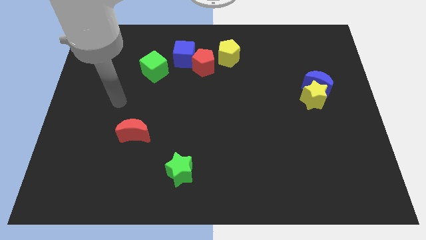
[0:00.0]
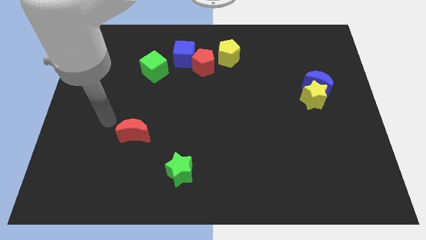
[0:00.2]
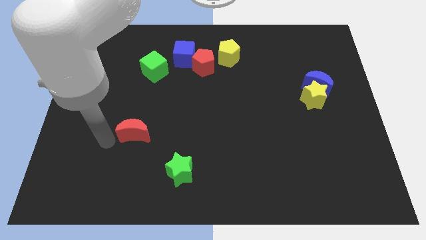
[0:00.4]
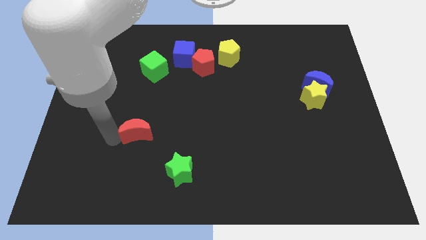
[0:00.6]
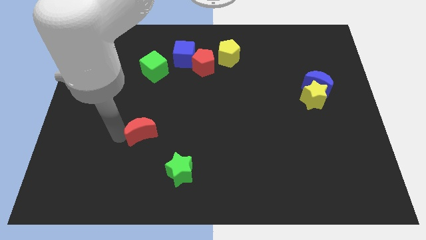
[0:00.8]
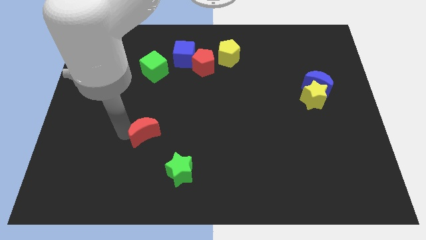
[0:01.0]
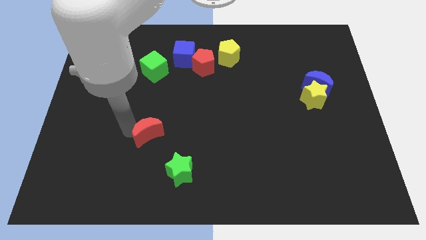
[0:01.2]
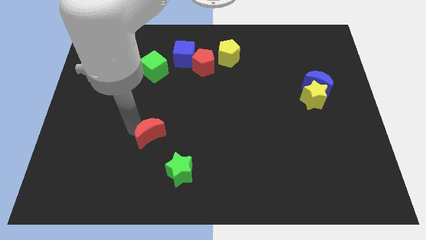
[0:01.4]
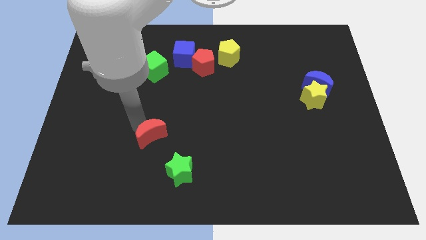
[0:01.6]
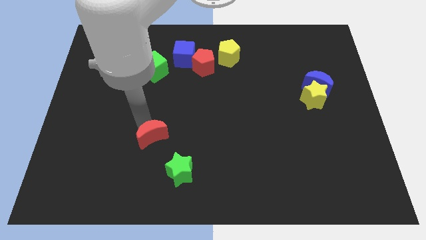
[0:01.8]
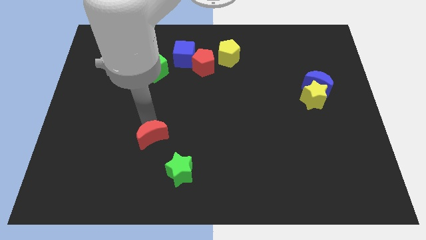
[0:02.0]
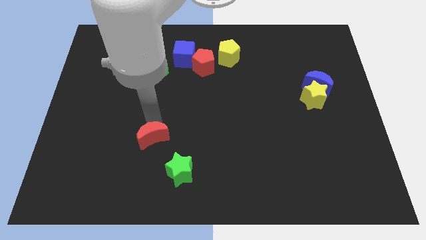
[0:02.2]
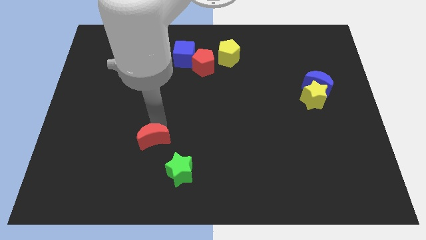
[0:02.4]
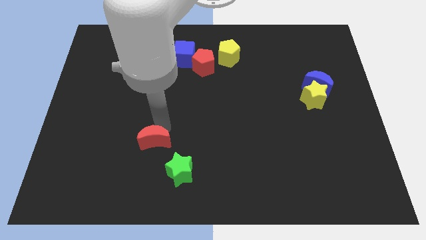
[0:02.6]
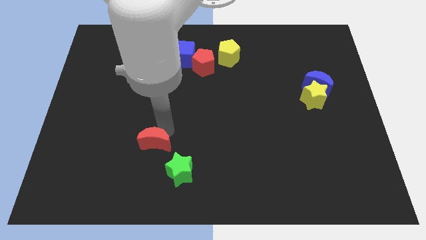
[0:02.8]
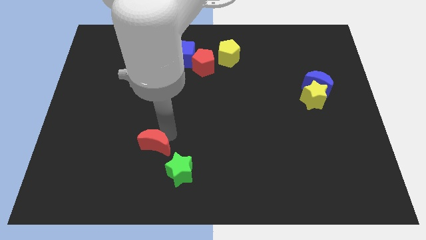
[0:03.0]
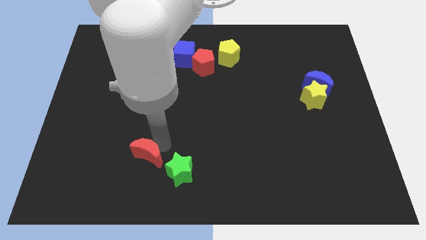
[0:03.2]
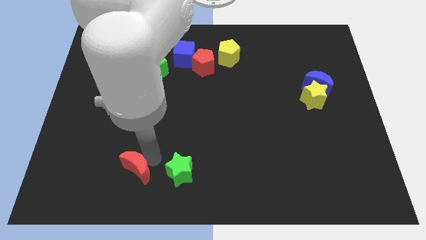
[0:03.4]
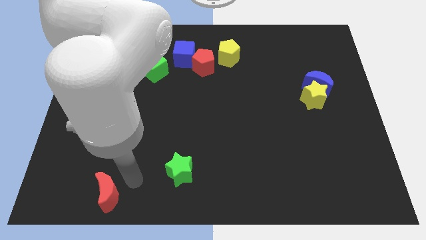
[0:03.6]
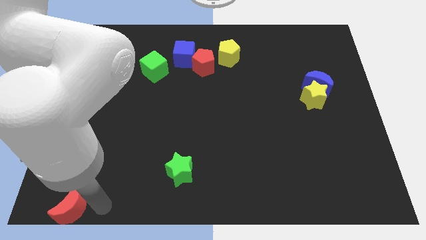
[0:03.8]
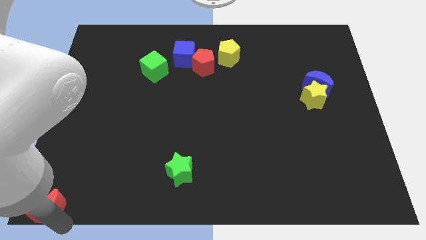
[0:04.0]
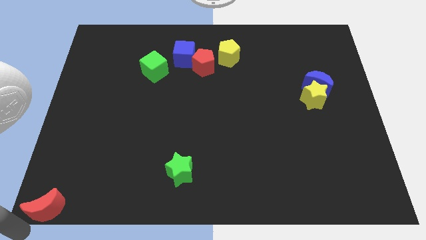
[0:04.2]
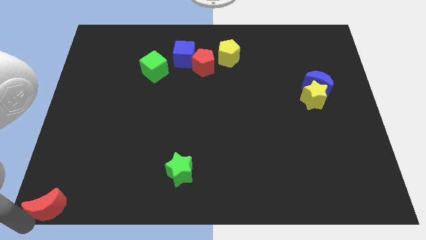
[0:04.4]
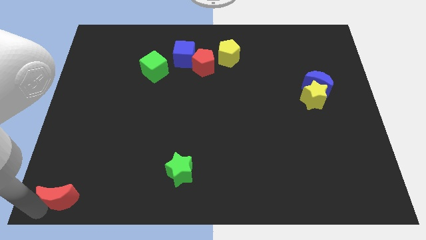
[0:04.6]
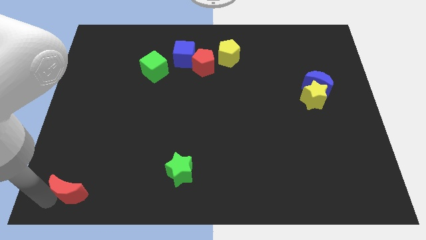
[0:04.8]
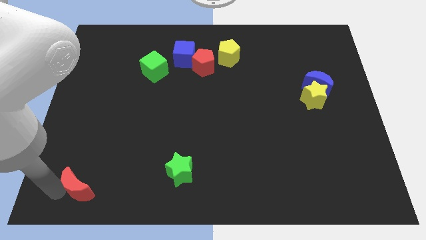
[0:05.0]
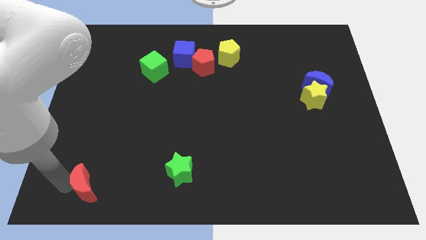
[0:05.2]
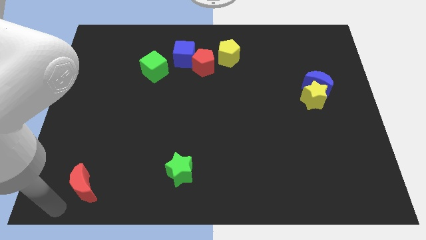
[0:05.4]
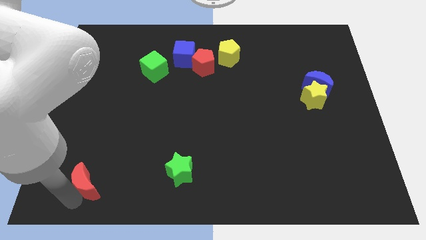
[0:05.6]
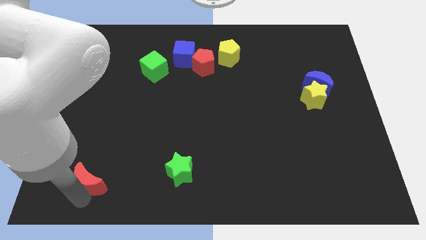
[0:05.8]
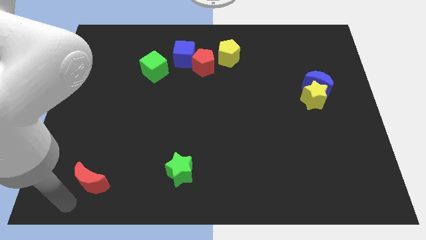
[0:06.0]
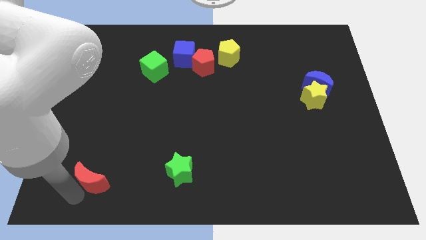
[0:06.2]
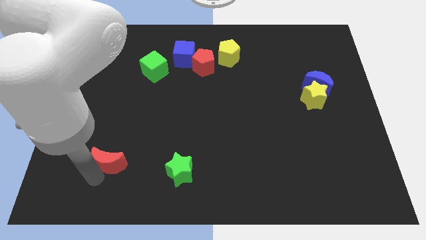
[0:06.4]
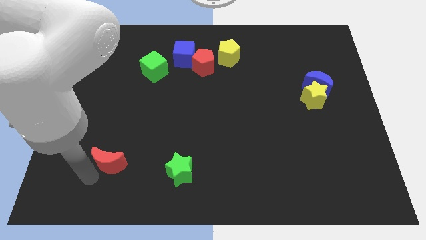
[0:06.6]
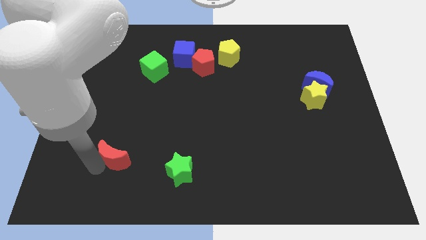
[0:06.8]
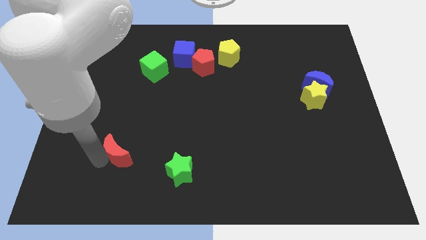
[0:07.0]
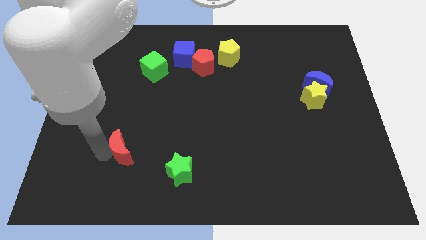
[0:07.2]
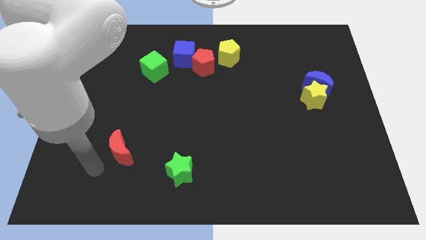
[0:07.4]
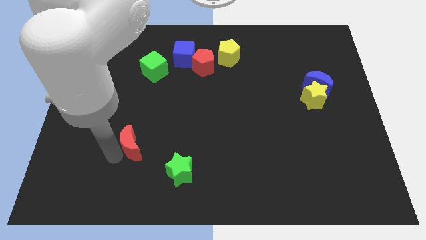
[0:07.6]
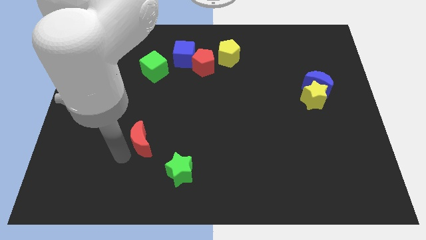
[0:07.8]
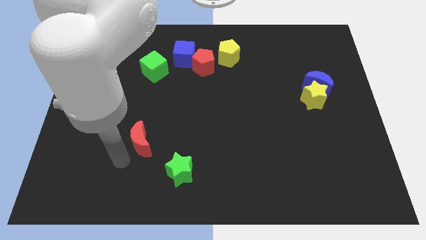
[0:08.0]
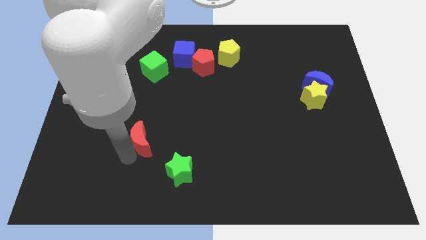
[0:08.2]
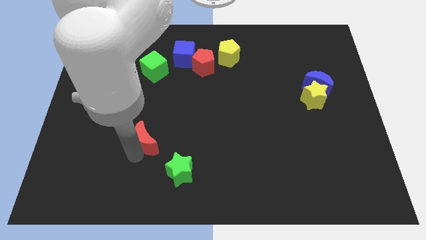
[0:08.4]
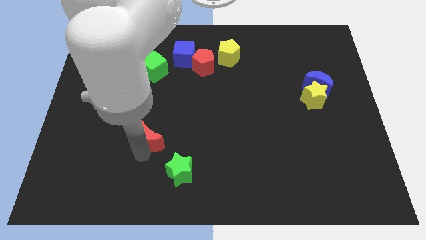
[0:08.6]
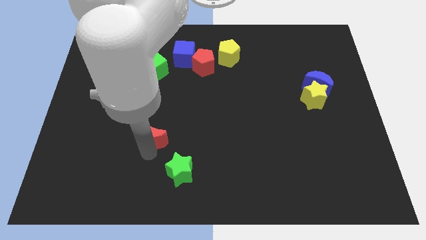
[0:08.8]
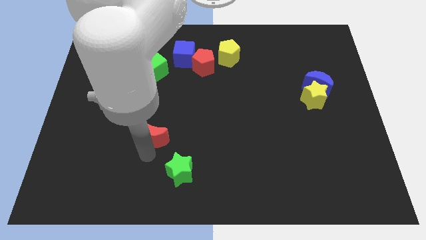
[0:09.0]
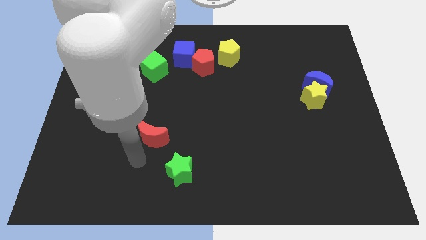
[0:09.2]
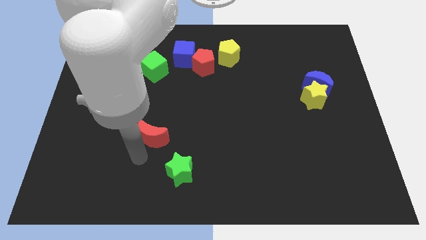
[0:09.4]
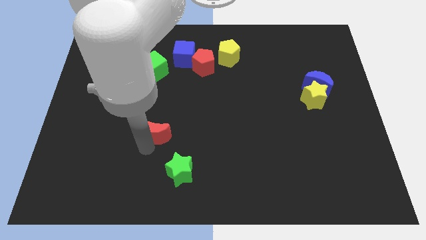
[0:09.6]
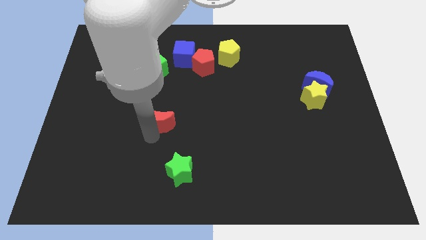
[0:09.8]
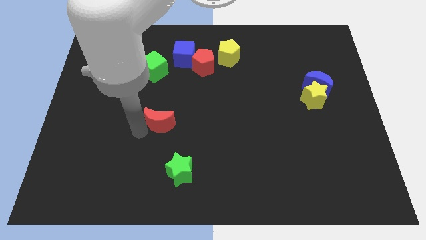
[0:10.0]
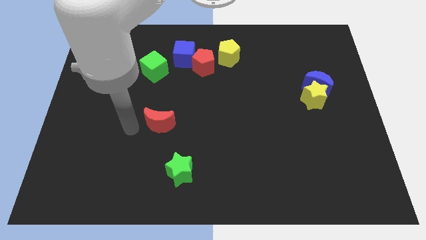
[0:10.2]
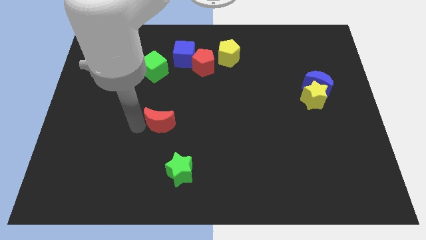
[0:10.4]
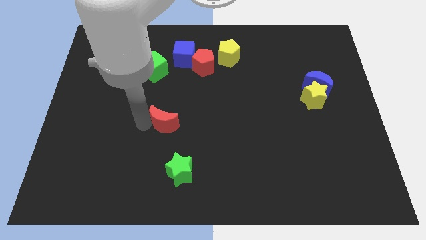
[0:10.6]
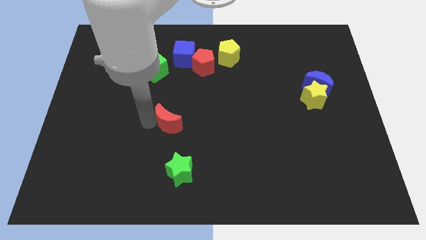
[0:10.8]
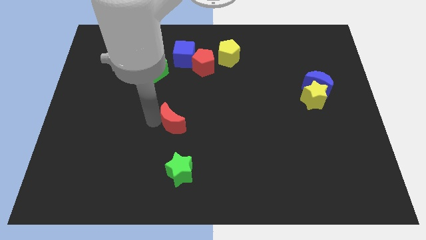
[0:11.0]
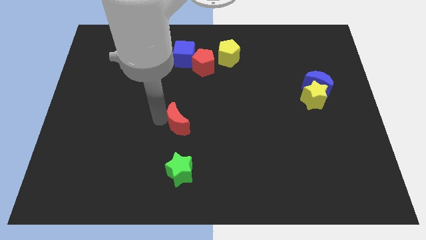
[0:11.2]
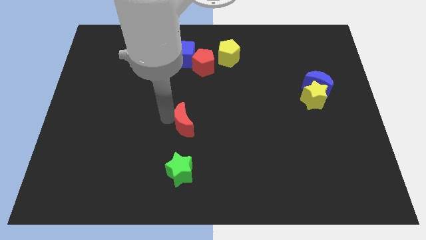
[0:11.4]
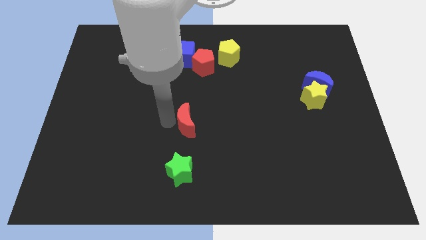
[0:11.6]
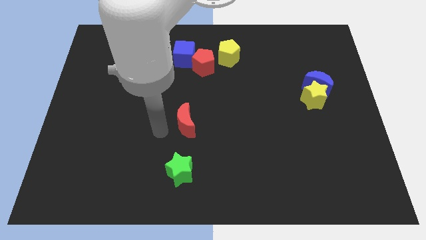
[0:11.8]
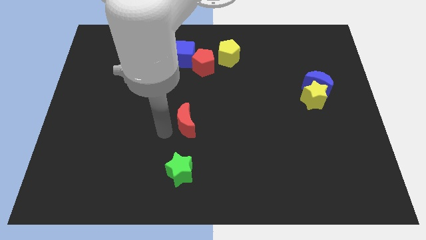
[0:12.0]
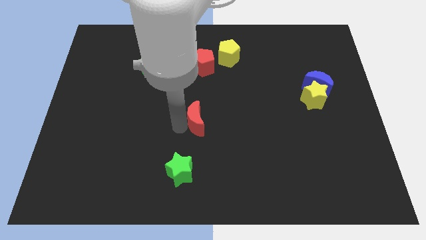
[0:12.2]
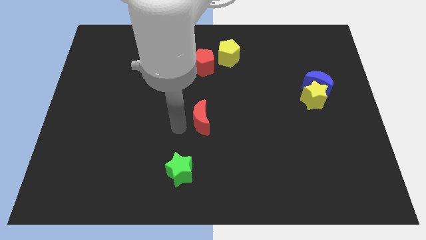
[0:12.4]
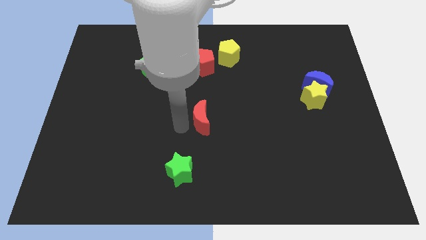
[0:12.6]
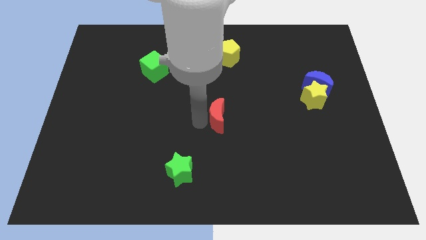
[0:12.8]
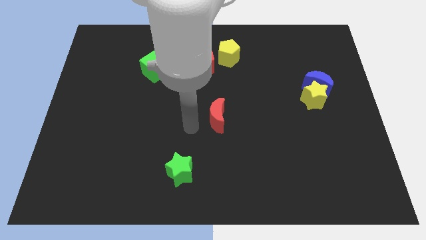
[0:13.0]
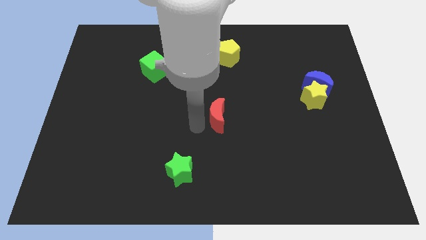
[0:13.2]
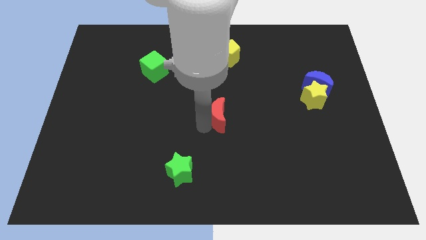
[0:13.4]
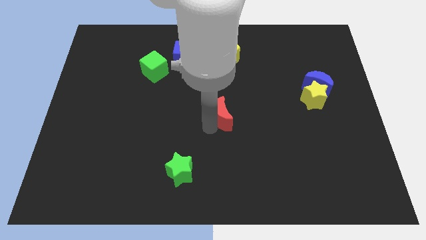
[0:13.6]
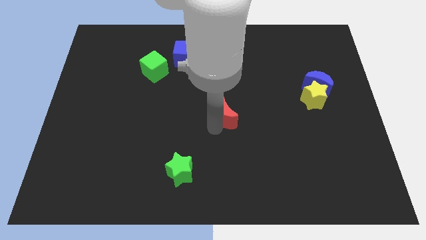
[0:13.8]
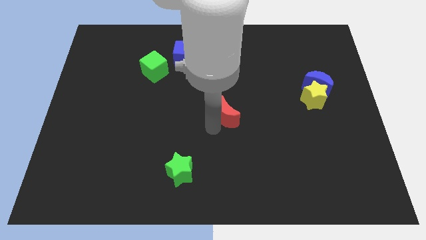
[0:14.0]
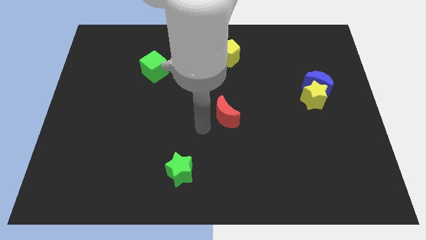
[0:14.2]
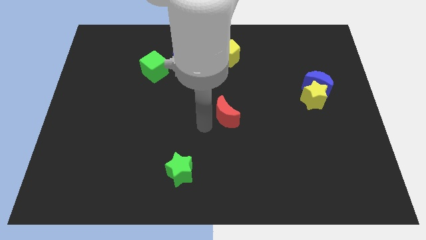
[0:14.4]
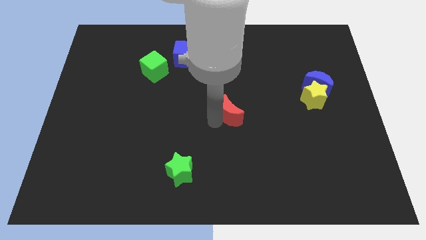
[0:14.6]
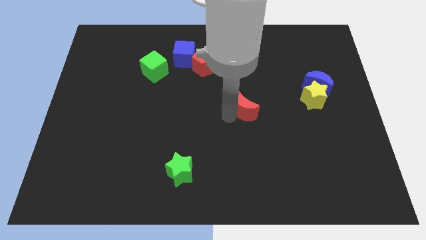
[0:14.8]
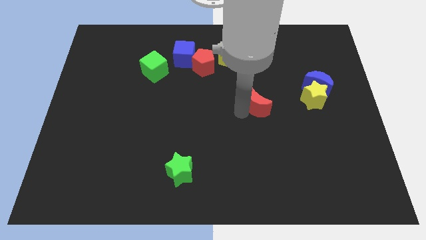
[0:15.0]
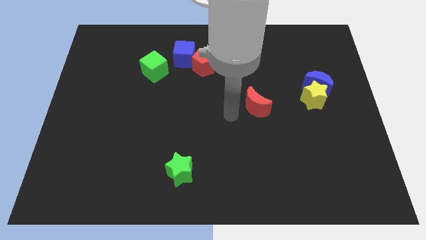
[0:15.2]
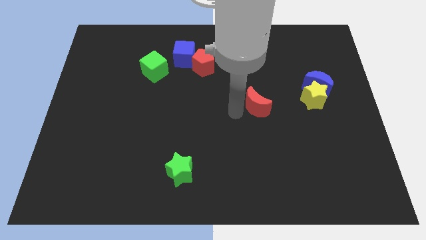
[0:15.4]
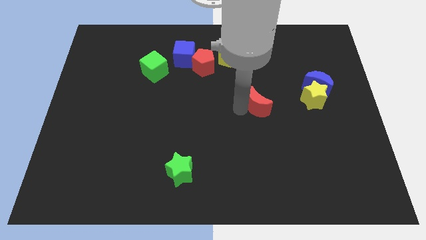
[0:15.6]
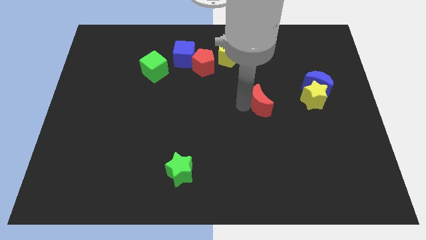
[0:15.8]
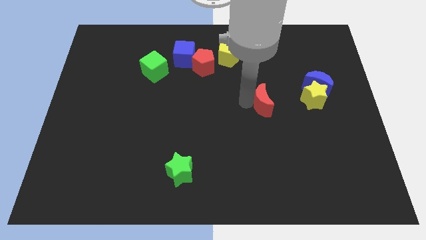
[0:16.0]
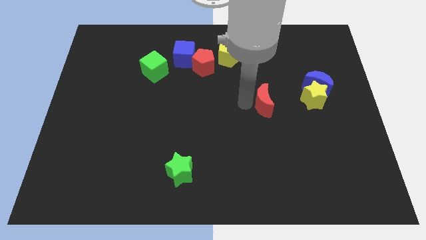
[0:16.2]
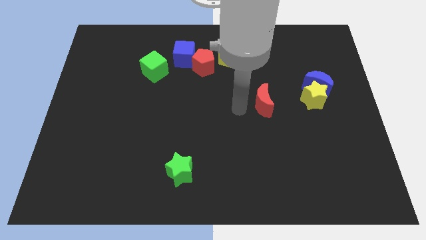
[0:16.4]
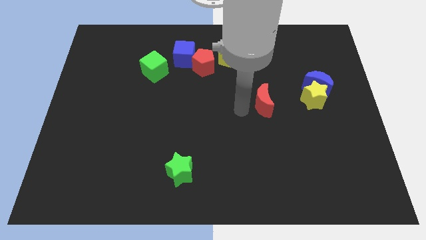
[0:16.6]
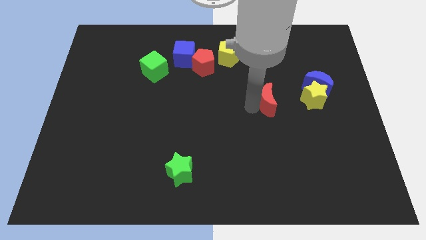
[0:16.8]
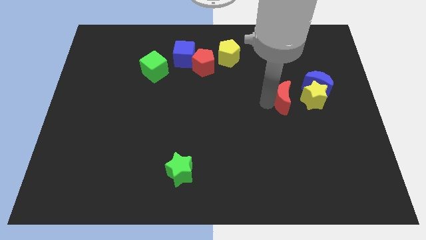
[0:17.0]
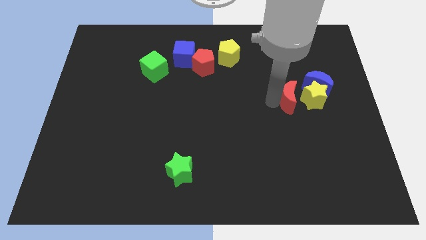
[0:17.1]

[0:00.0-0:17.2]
move the red moon towards the yellow star
